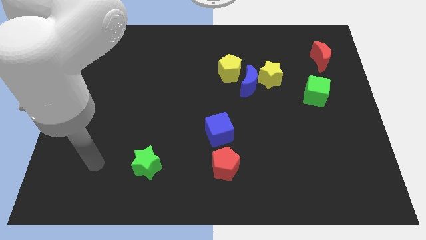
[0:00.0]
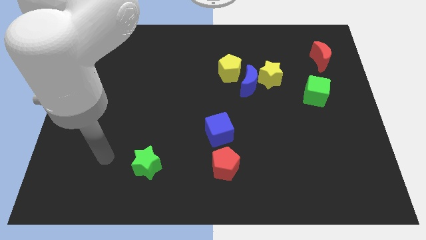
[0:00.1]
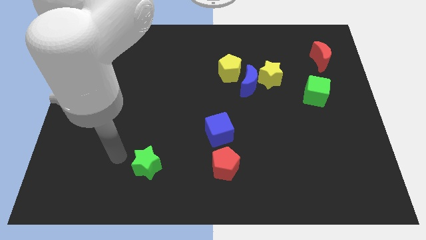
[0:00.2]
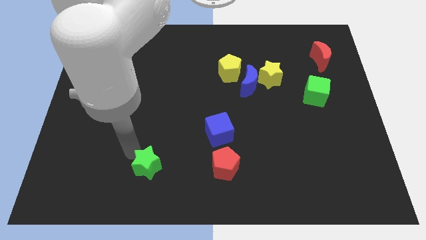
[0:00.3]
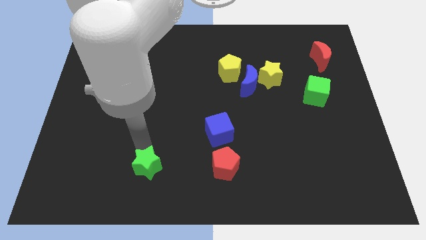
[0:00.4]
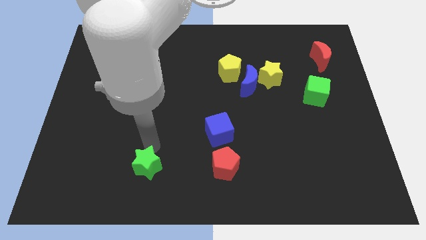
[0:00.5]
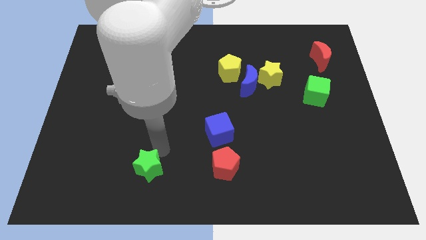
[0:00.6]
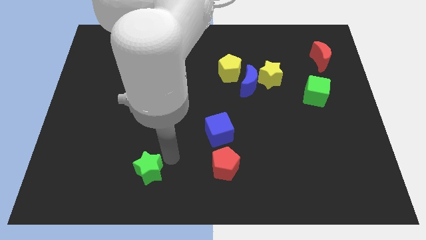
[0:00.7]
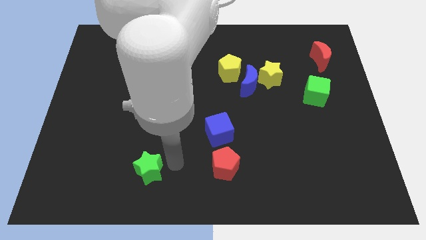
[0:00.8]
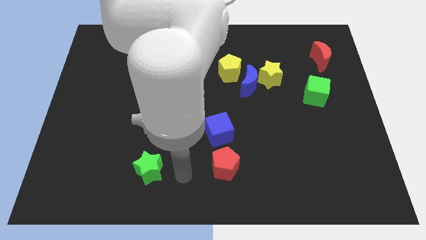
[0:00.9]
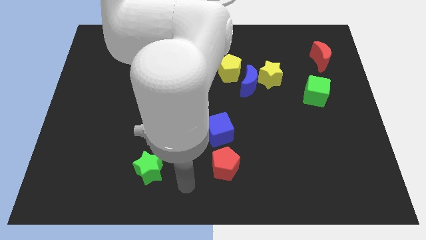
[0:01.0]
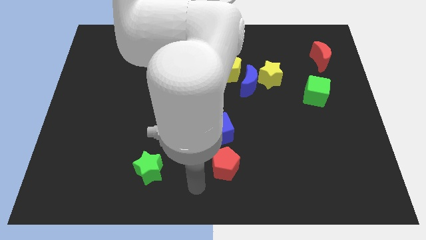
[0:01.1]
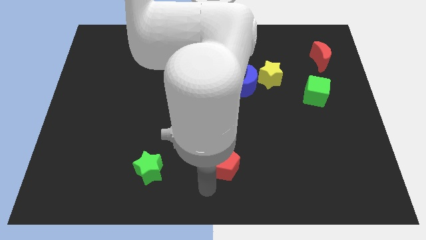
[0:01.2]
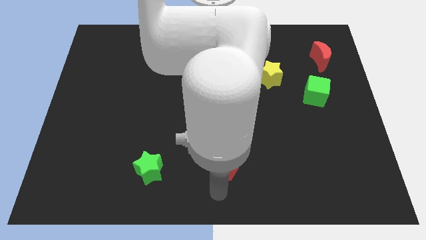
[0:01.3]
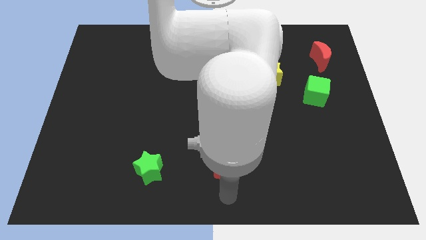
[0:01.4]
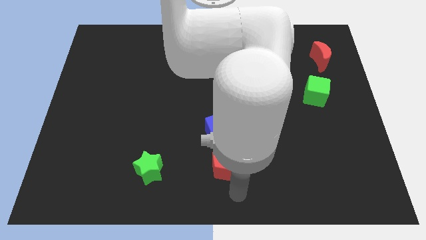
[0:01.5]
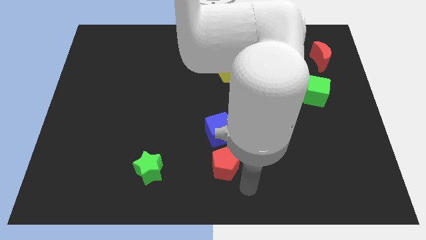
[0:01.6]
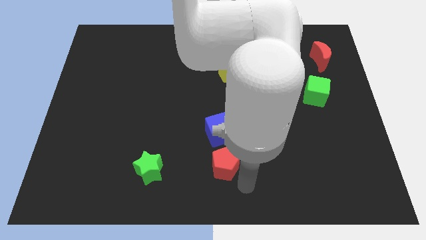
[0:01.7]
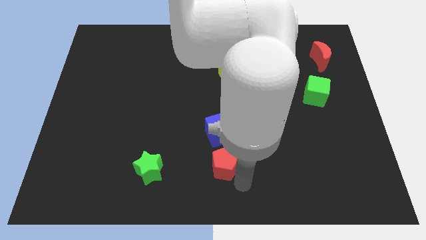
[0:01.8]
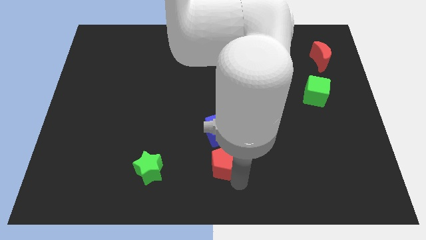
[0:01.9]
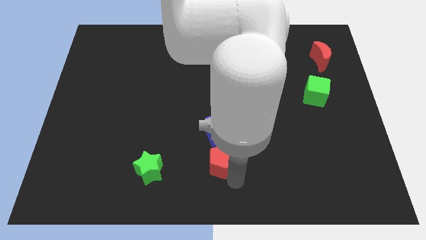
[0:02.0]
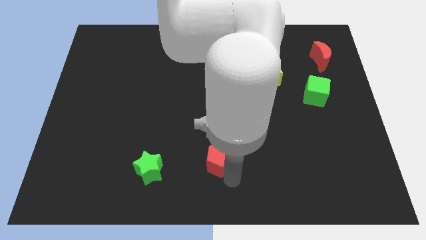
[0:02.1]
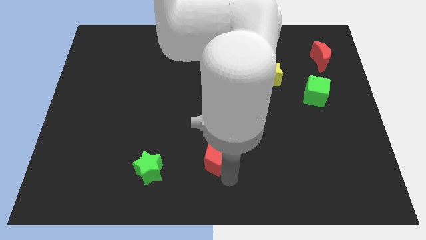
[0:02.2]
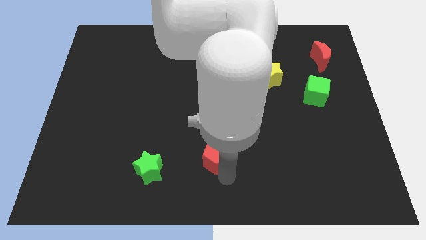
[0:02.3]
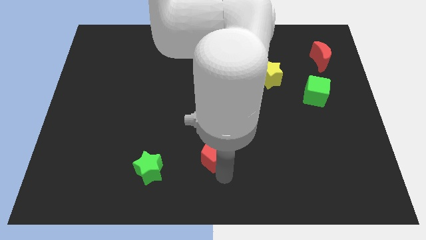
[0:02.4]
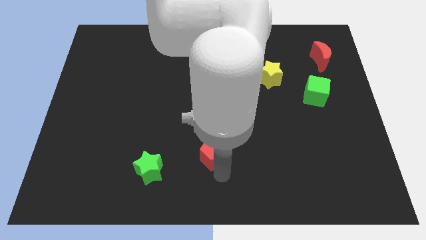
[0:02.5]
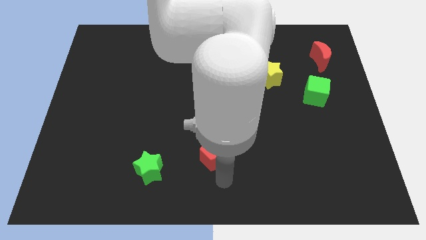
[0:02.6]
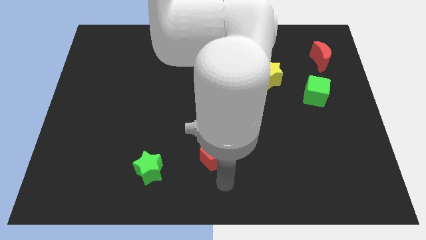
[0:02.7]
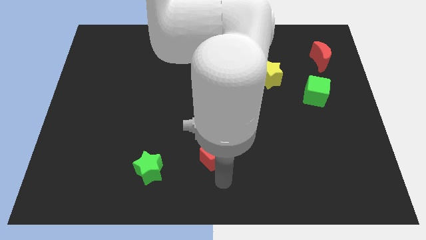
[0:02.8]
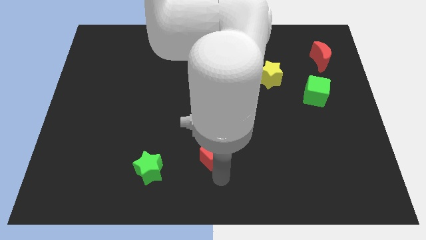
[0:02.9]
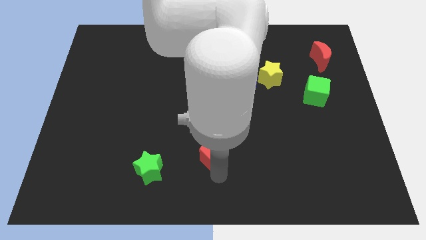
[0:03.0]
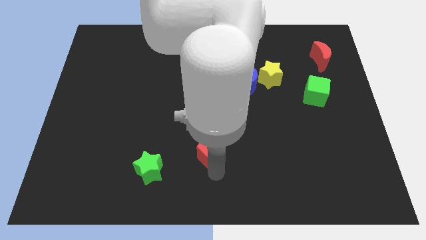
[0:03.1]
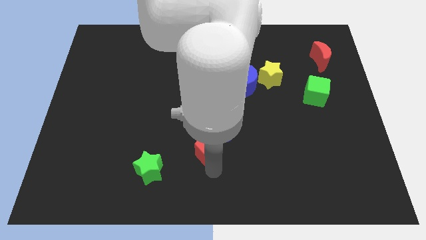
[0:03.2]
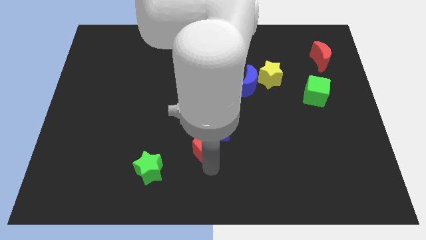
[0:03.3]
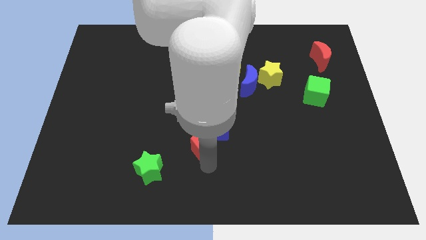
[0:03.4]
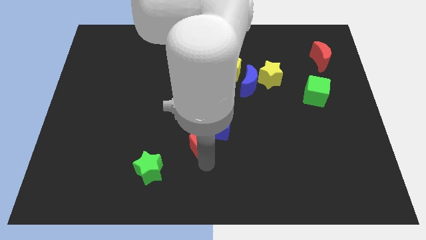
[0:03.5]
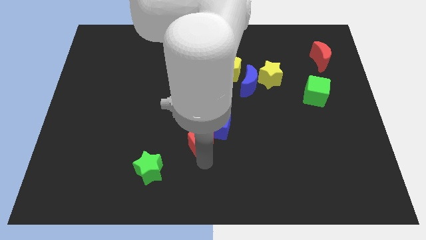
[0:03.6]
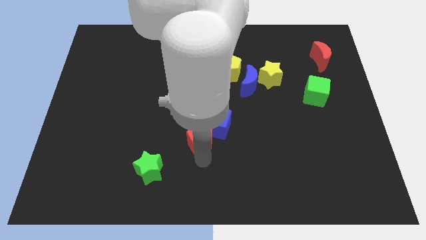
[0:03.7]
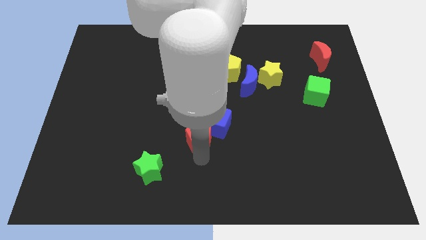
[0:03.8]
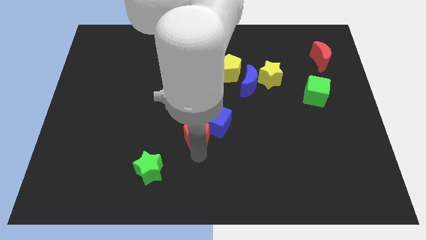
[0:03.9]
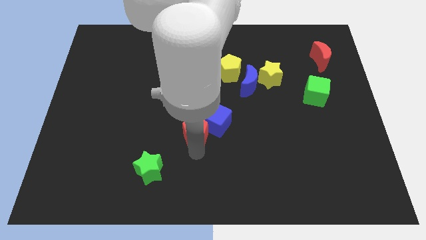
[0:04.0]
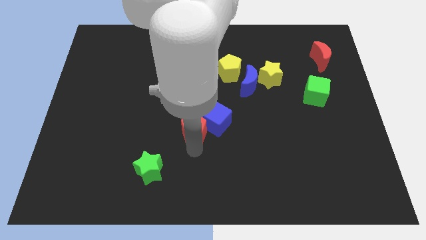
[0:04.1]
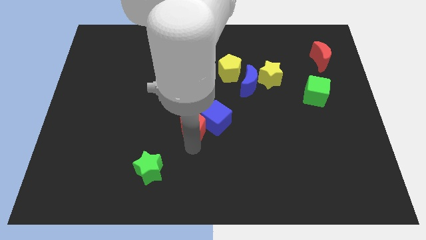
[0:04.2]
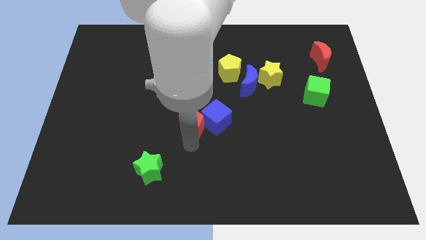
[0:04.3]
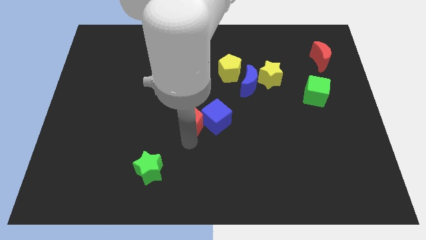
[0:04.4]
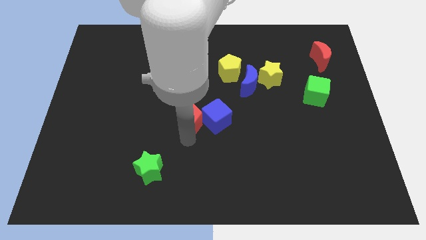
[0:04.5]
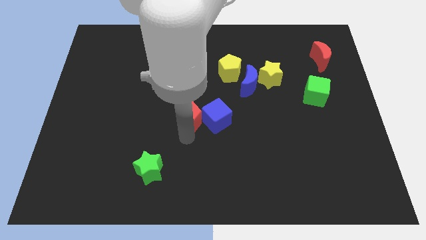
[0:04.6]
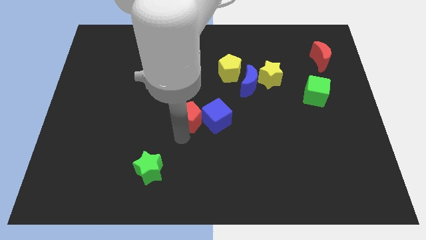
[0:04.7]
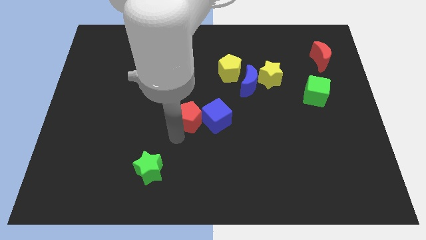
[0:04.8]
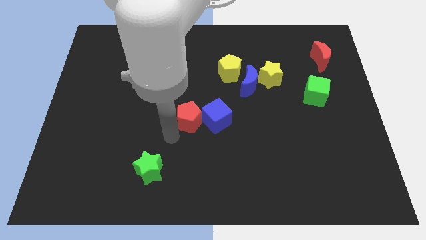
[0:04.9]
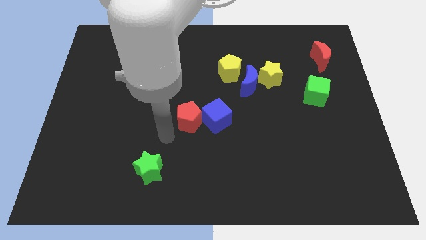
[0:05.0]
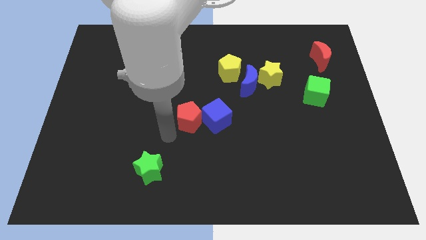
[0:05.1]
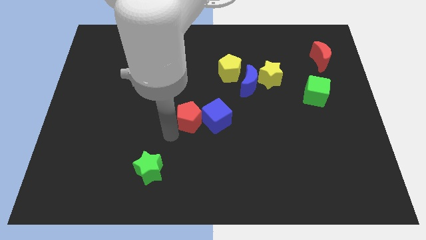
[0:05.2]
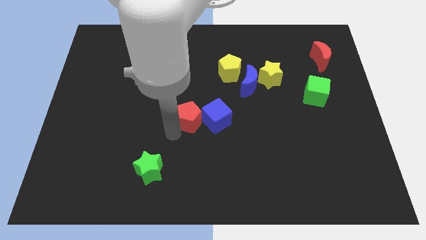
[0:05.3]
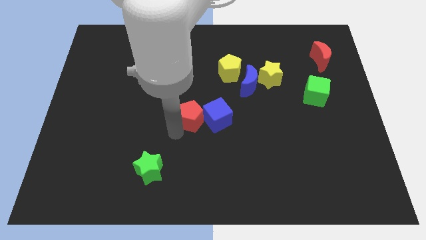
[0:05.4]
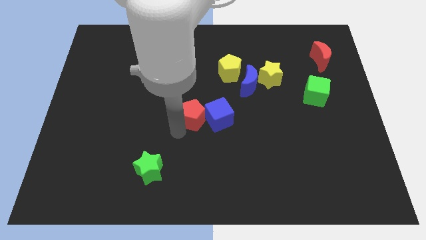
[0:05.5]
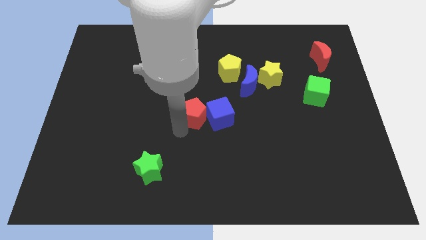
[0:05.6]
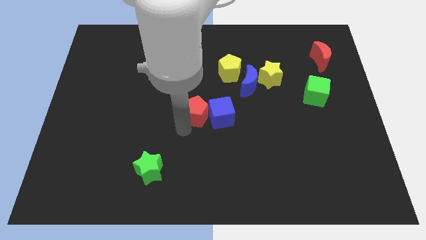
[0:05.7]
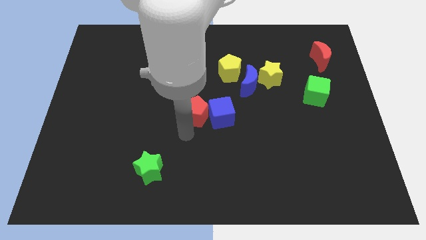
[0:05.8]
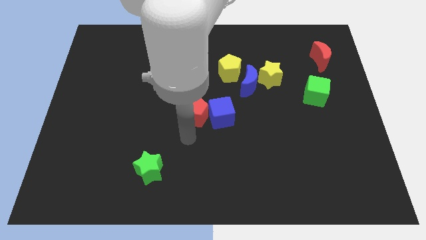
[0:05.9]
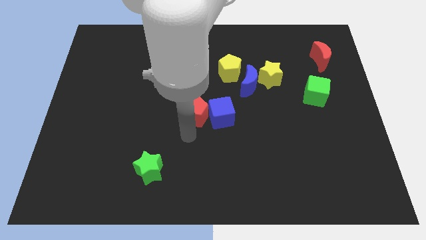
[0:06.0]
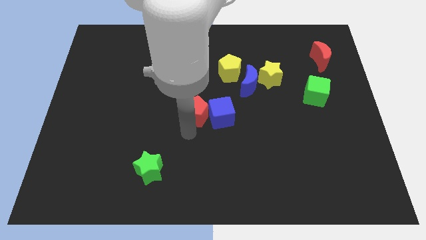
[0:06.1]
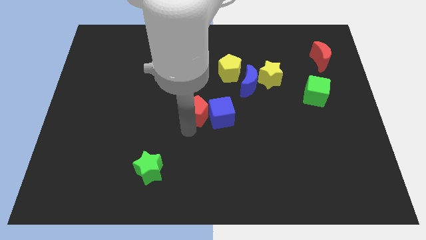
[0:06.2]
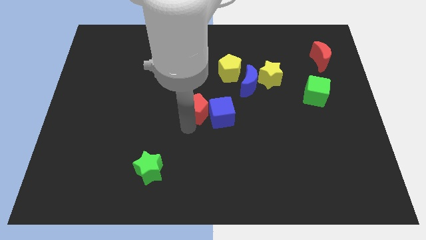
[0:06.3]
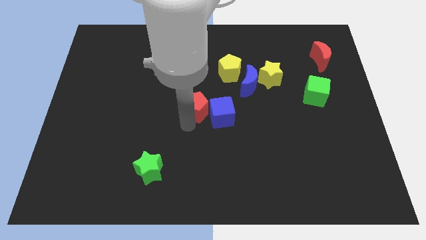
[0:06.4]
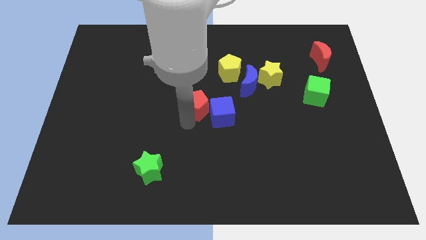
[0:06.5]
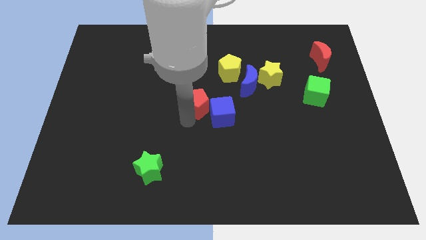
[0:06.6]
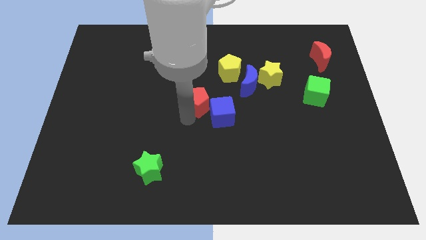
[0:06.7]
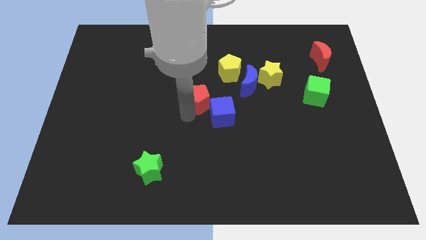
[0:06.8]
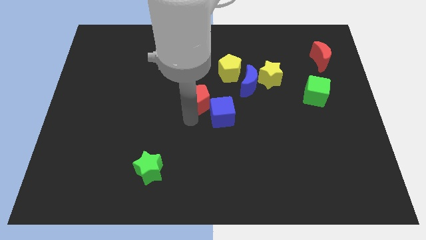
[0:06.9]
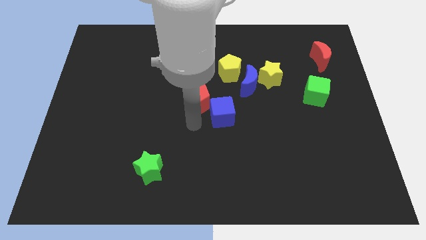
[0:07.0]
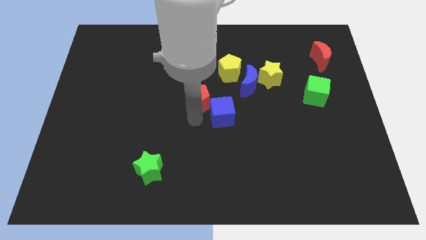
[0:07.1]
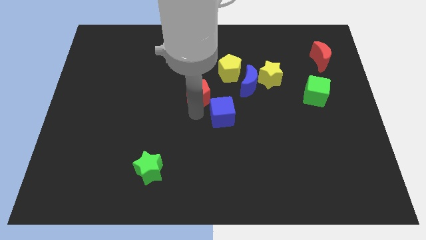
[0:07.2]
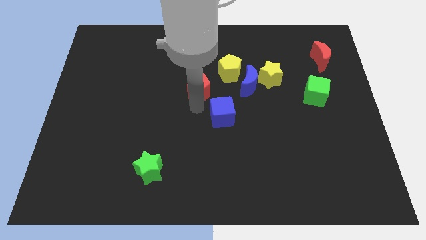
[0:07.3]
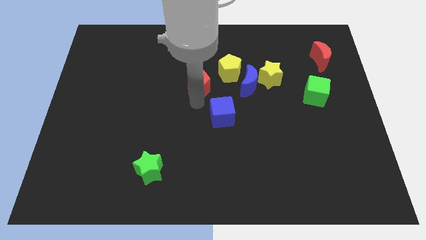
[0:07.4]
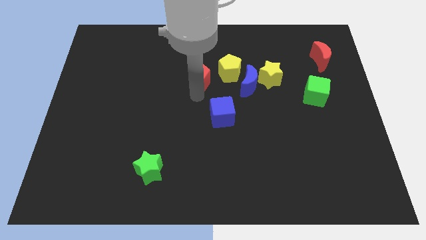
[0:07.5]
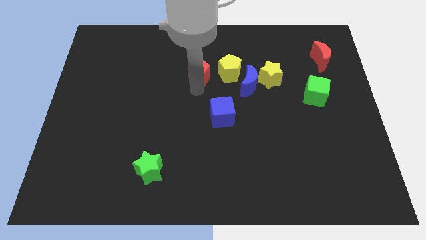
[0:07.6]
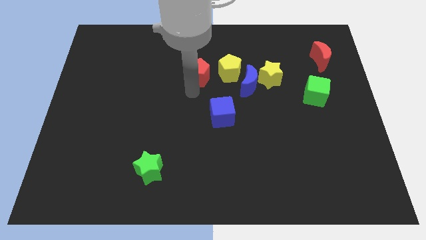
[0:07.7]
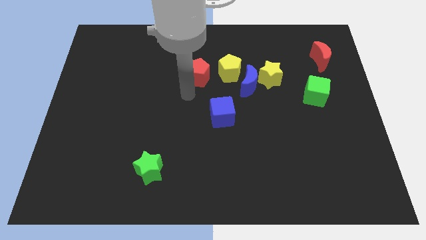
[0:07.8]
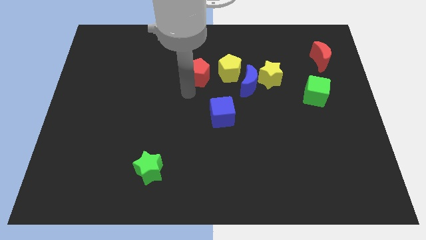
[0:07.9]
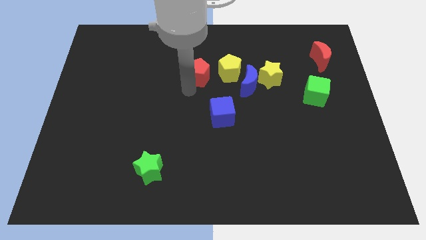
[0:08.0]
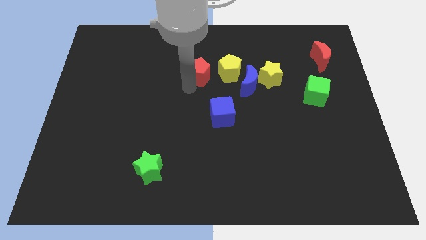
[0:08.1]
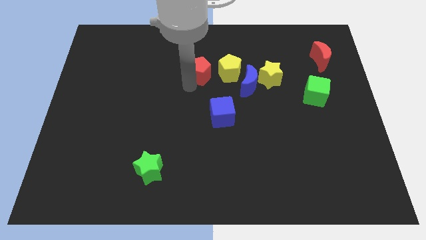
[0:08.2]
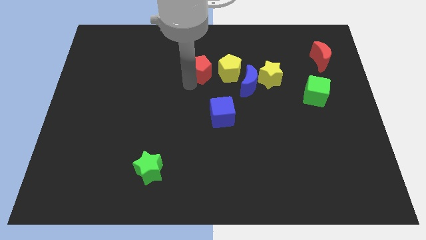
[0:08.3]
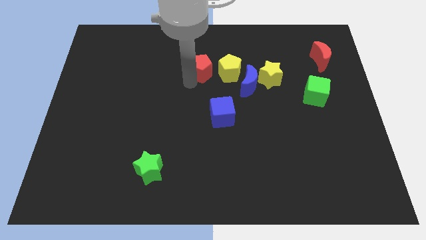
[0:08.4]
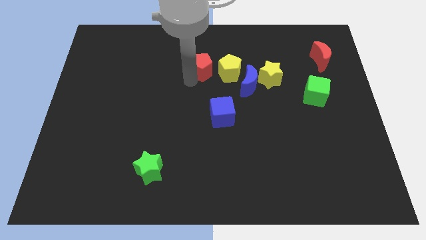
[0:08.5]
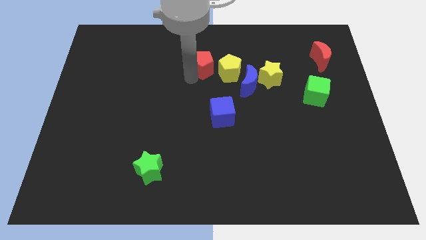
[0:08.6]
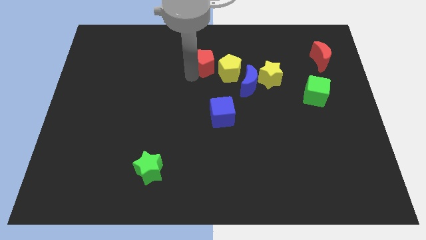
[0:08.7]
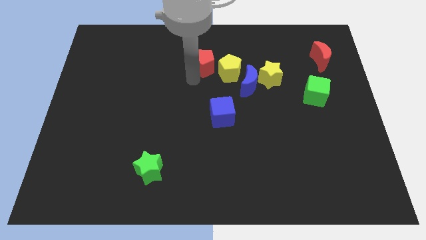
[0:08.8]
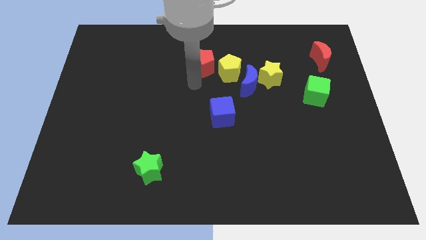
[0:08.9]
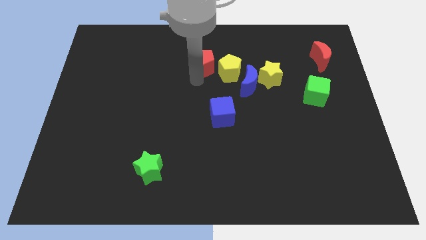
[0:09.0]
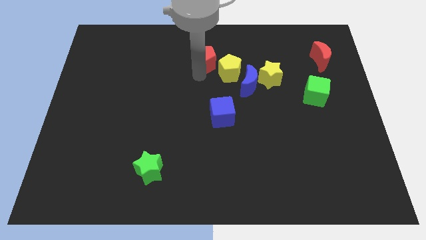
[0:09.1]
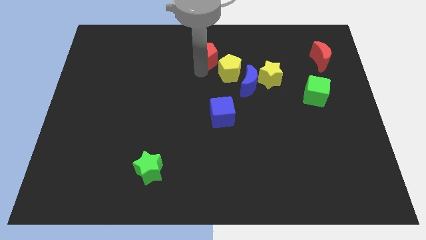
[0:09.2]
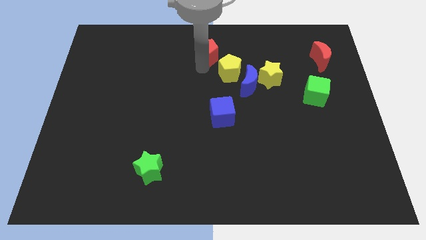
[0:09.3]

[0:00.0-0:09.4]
put the red pentagon to the top side
